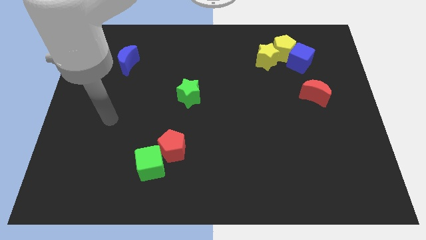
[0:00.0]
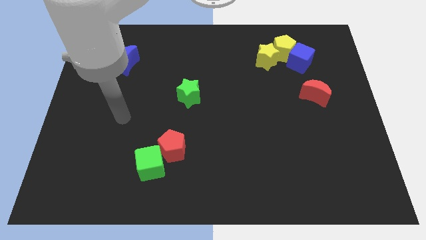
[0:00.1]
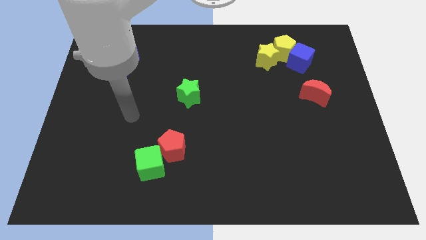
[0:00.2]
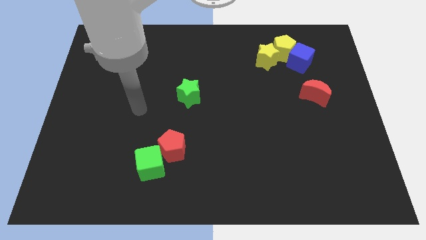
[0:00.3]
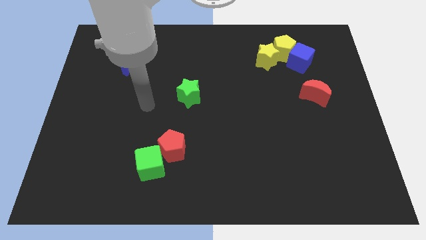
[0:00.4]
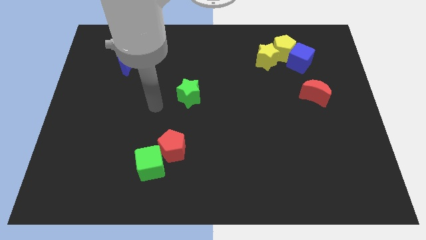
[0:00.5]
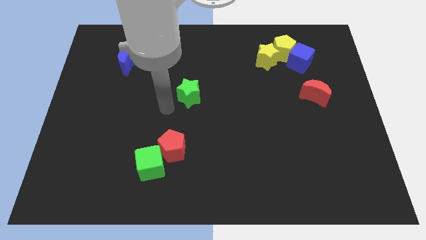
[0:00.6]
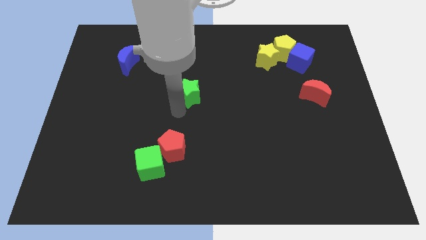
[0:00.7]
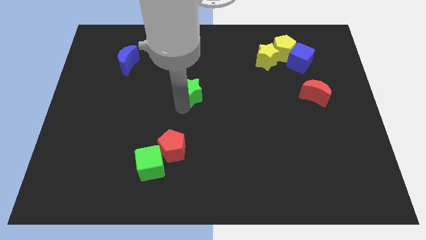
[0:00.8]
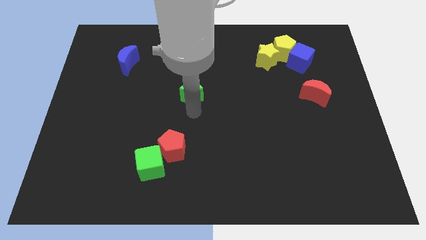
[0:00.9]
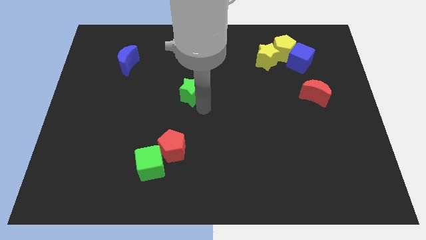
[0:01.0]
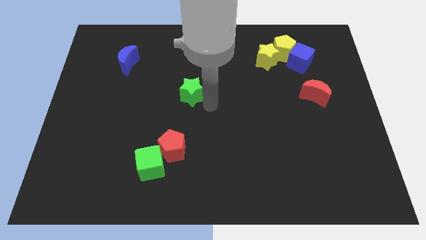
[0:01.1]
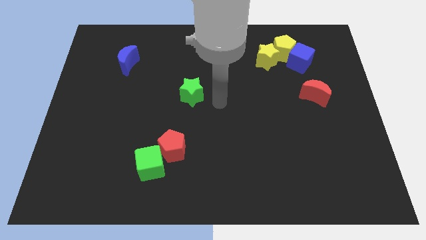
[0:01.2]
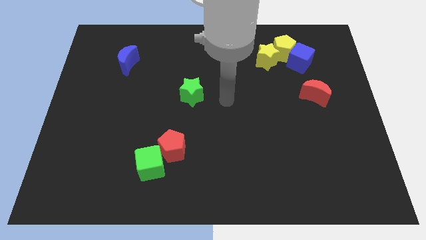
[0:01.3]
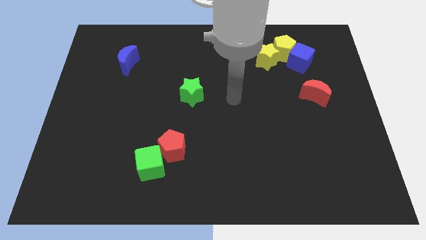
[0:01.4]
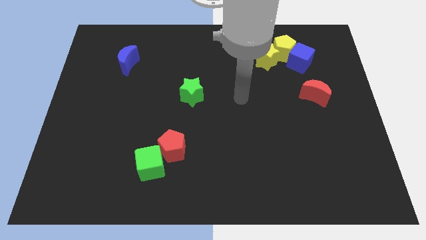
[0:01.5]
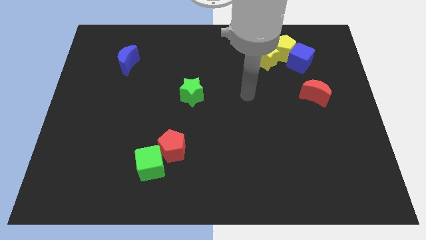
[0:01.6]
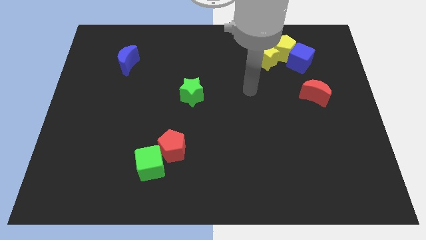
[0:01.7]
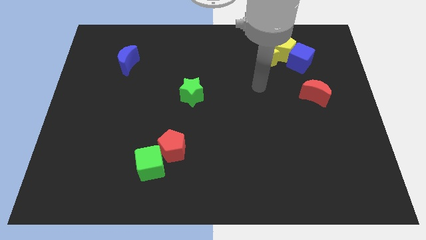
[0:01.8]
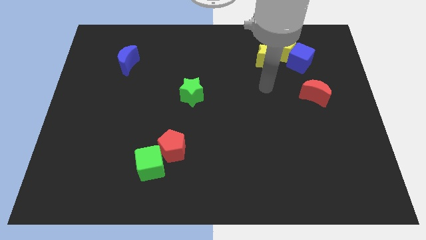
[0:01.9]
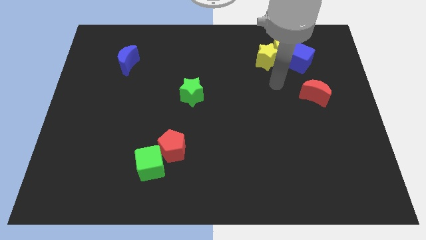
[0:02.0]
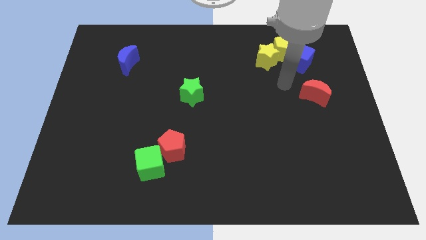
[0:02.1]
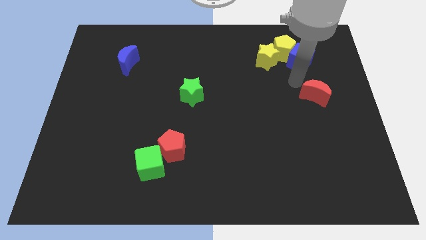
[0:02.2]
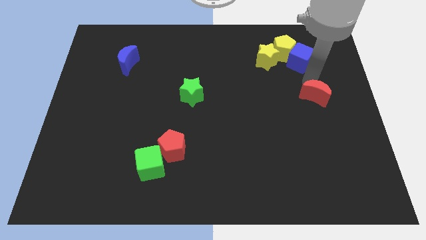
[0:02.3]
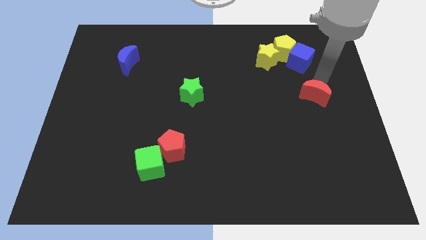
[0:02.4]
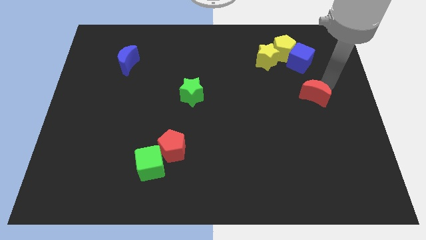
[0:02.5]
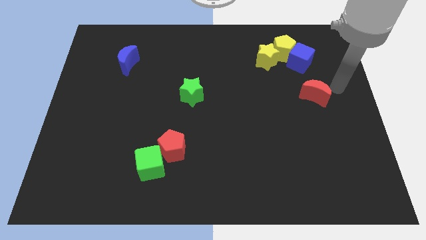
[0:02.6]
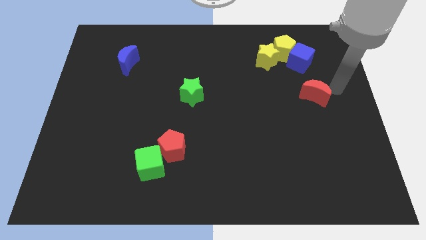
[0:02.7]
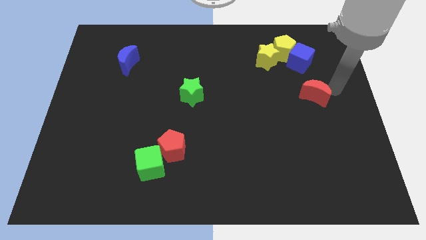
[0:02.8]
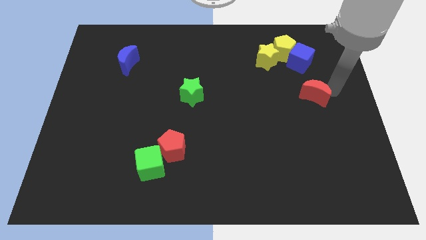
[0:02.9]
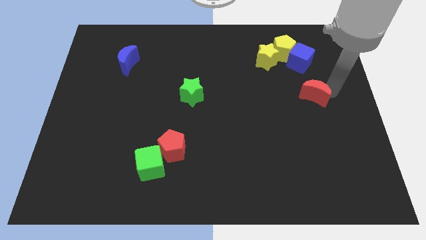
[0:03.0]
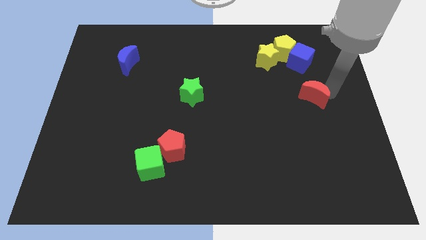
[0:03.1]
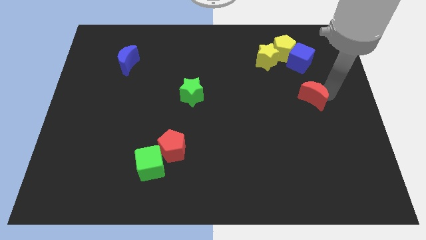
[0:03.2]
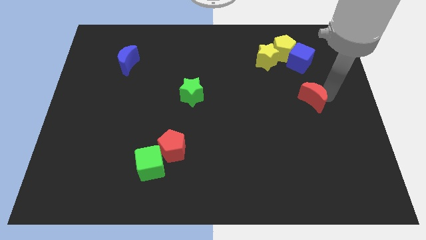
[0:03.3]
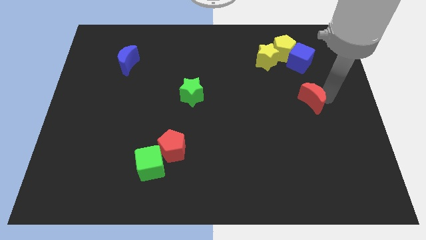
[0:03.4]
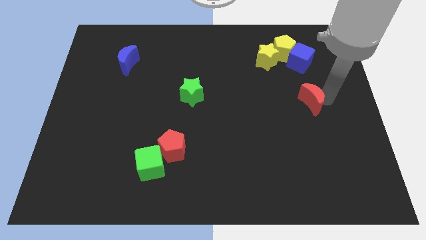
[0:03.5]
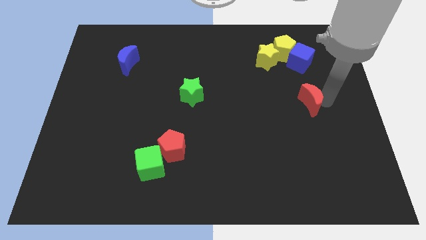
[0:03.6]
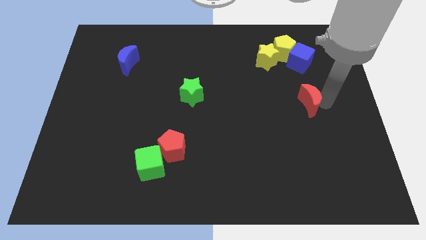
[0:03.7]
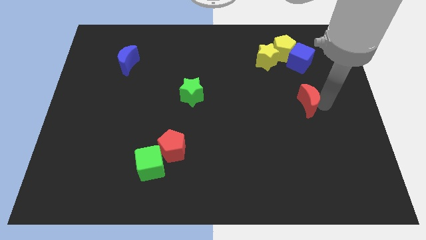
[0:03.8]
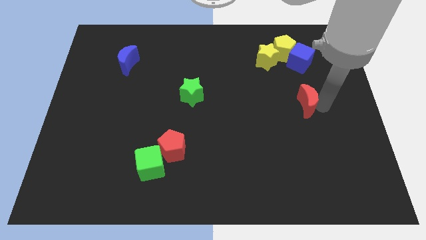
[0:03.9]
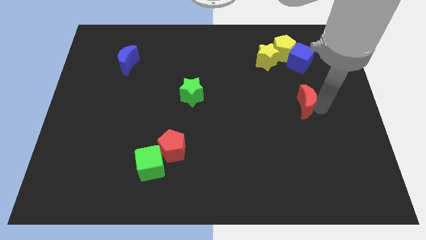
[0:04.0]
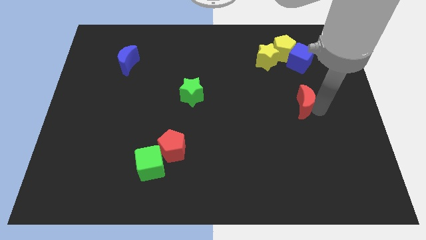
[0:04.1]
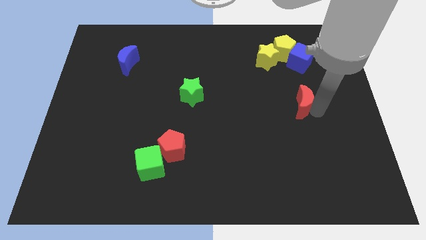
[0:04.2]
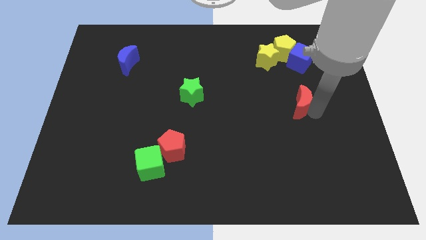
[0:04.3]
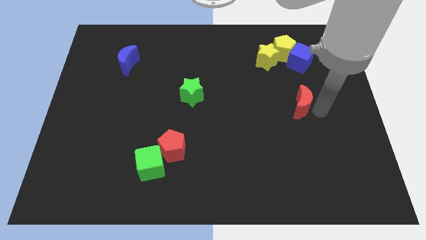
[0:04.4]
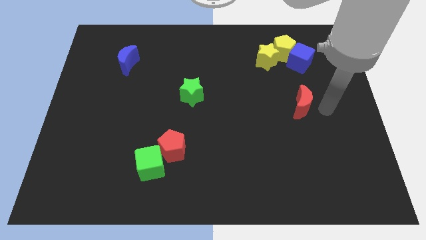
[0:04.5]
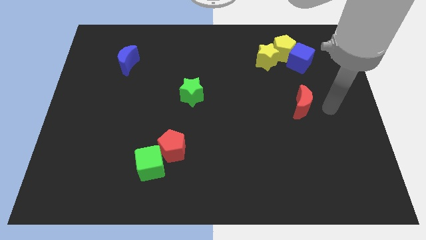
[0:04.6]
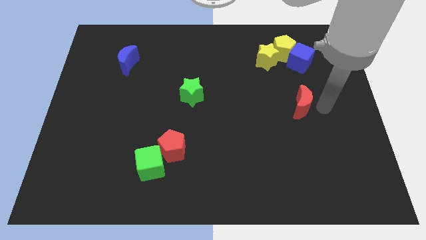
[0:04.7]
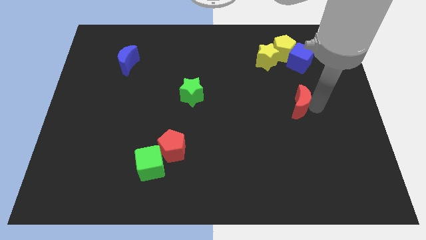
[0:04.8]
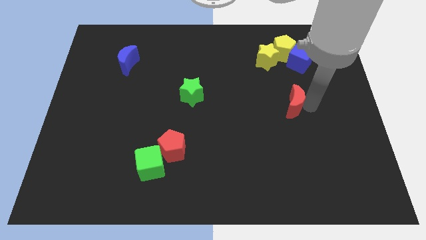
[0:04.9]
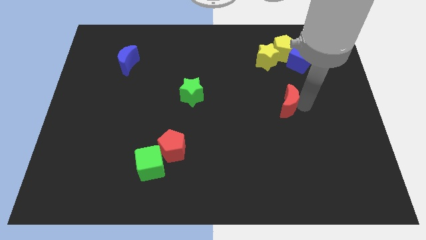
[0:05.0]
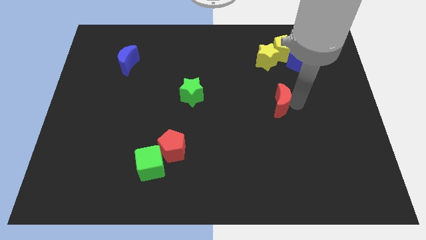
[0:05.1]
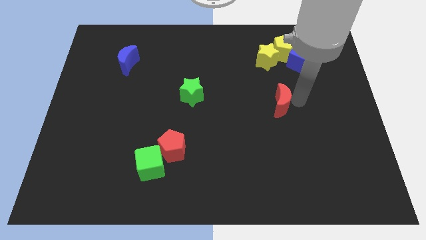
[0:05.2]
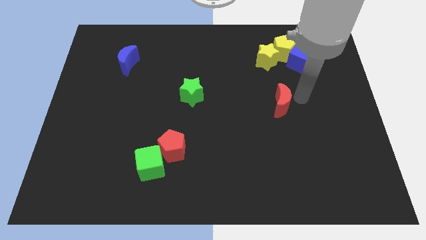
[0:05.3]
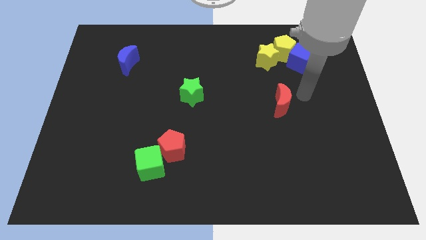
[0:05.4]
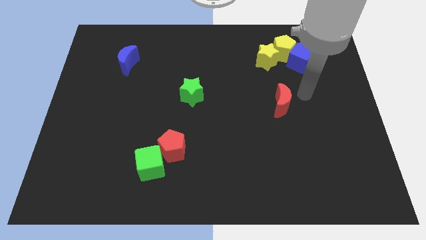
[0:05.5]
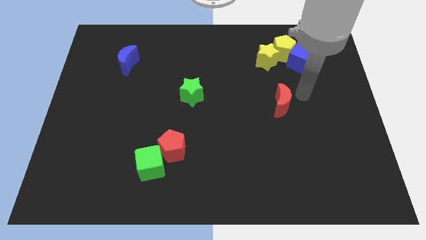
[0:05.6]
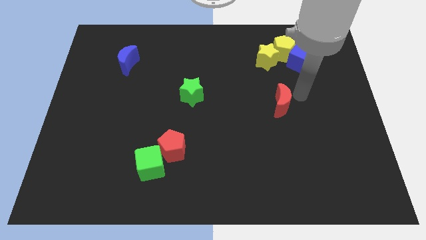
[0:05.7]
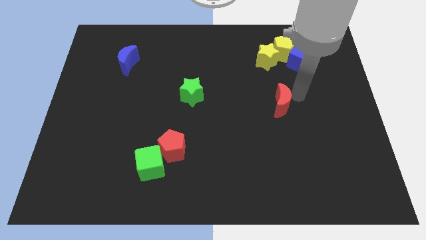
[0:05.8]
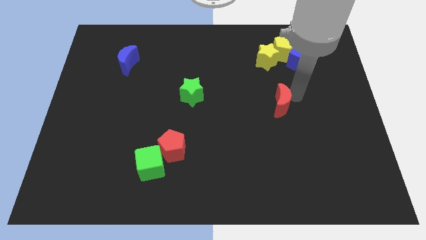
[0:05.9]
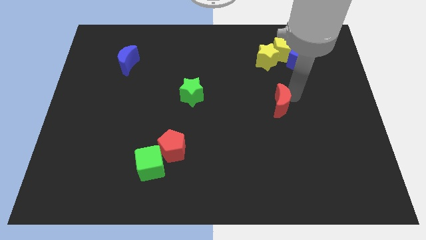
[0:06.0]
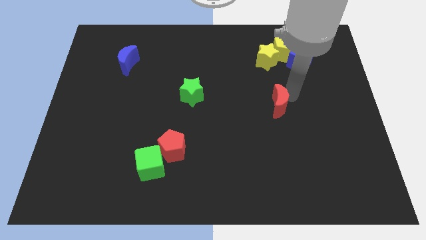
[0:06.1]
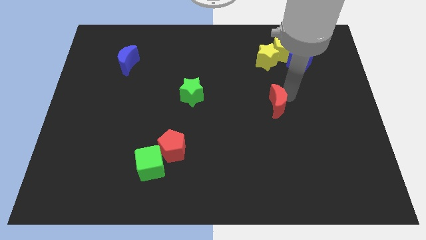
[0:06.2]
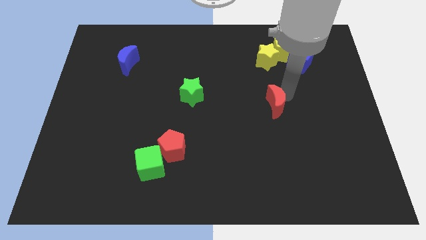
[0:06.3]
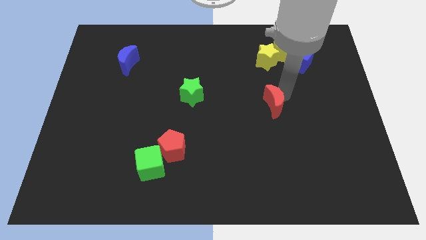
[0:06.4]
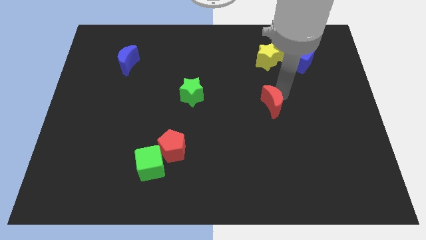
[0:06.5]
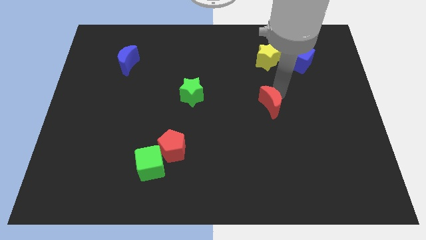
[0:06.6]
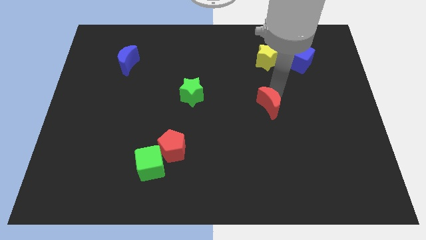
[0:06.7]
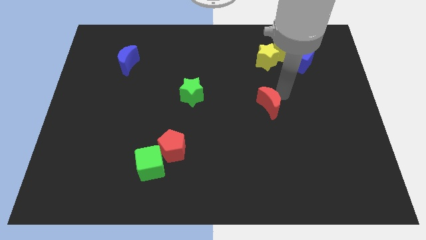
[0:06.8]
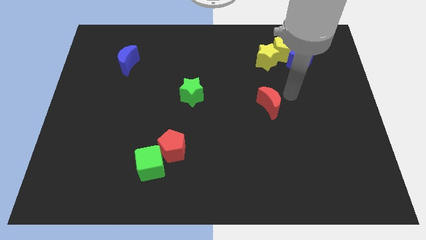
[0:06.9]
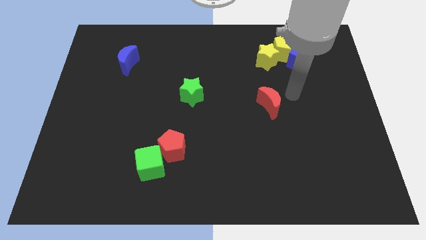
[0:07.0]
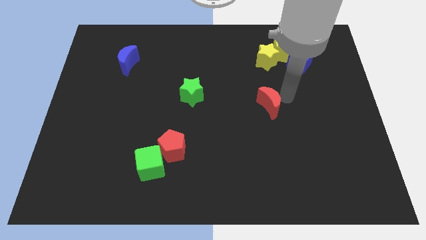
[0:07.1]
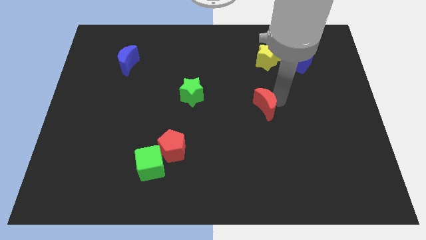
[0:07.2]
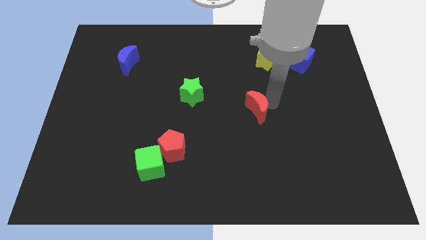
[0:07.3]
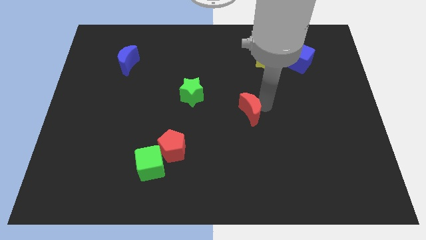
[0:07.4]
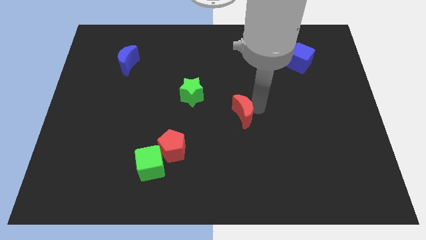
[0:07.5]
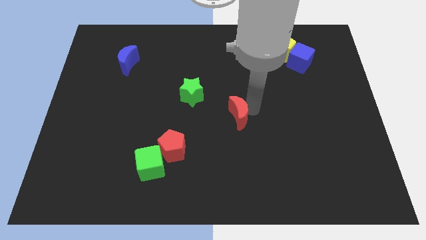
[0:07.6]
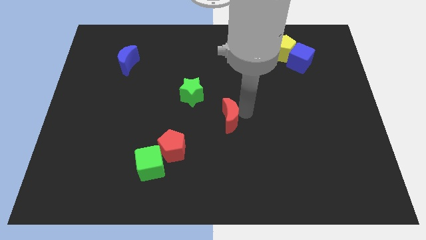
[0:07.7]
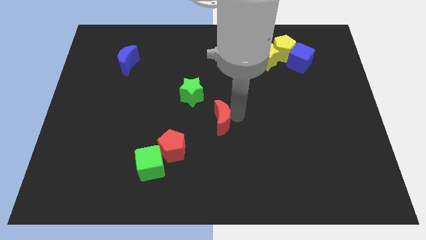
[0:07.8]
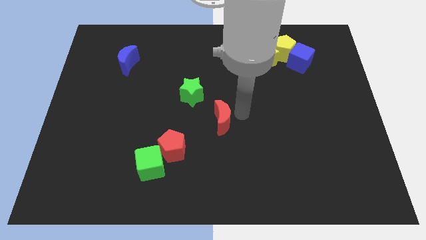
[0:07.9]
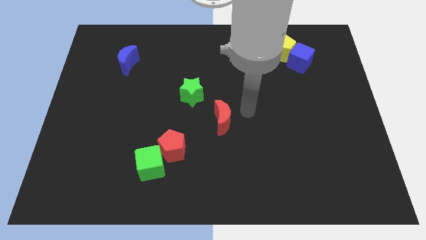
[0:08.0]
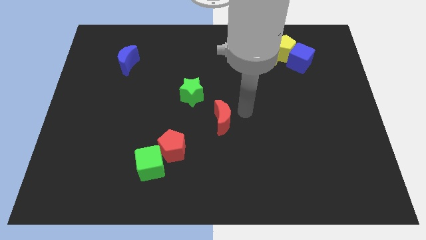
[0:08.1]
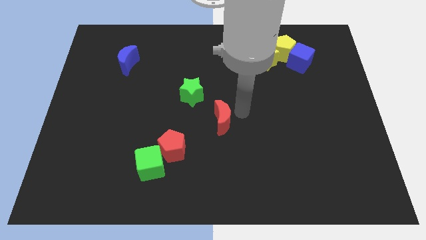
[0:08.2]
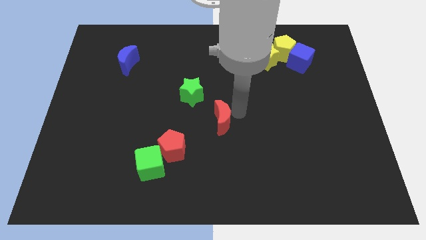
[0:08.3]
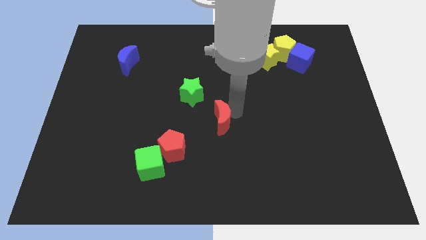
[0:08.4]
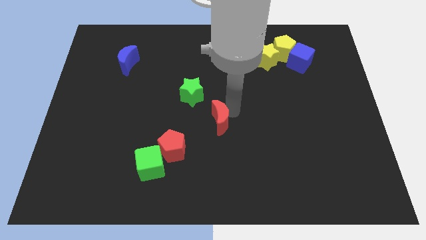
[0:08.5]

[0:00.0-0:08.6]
move the red moon diagonally up and to the right of the red pentagon
